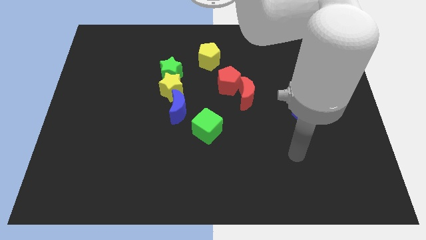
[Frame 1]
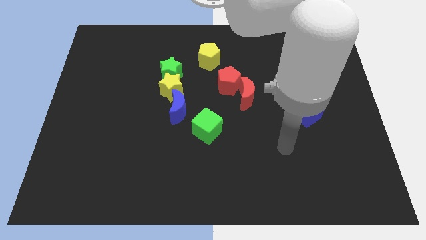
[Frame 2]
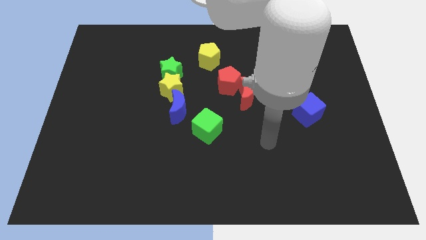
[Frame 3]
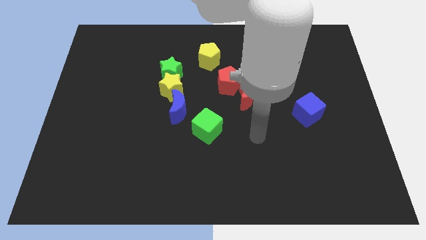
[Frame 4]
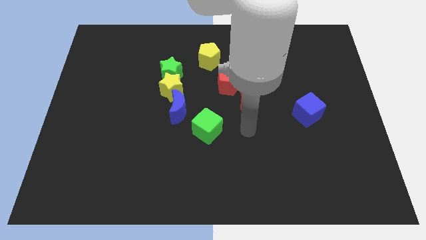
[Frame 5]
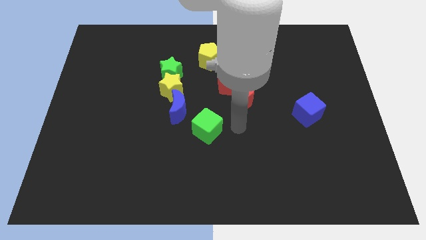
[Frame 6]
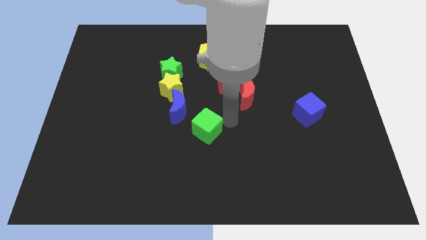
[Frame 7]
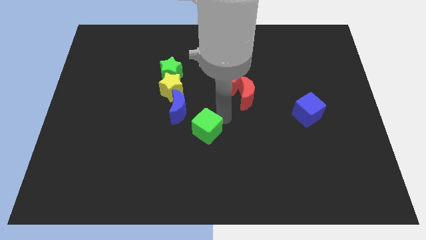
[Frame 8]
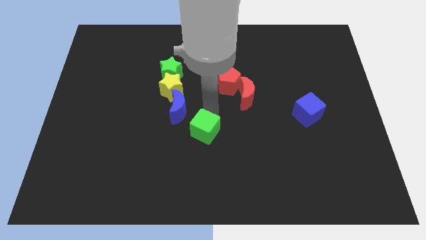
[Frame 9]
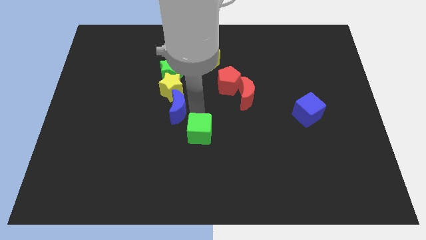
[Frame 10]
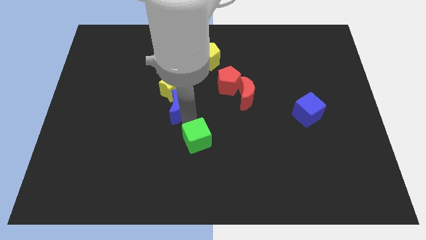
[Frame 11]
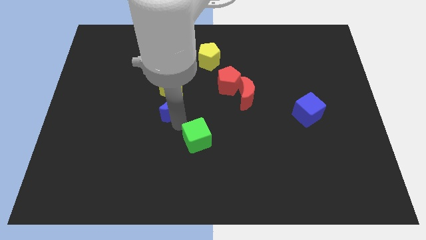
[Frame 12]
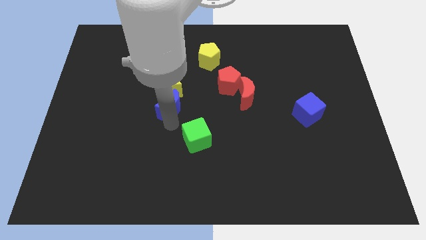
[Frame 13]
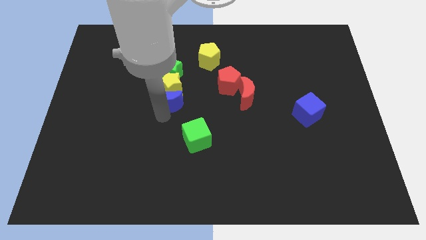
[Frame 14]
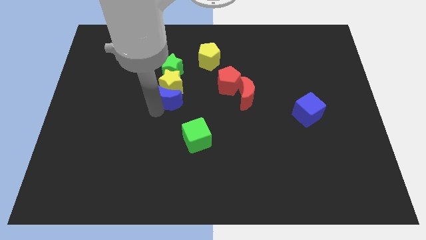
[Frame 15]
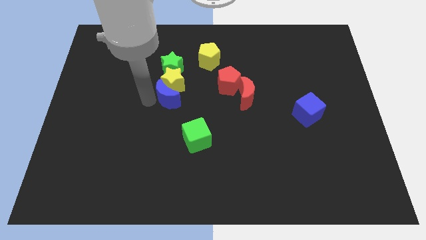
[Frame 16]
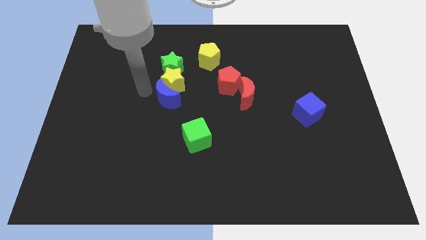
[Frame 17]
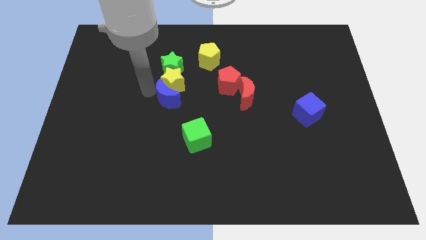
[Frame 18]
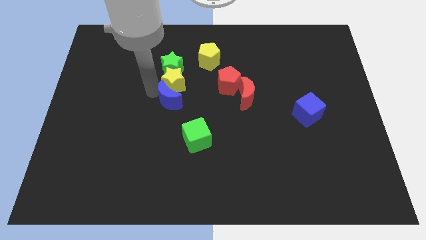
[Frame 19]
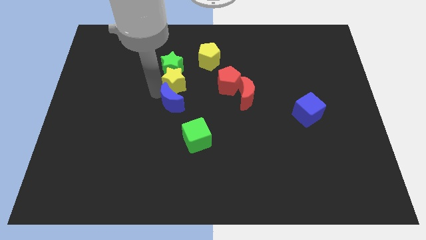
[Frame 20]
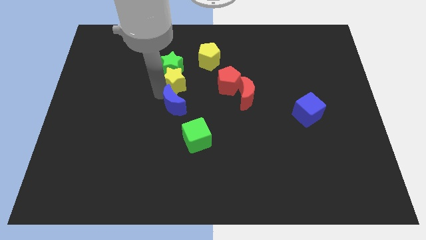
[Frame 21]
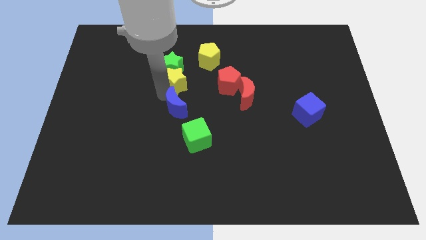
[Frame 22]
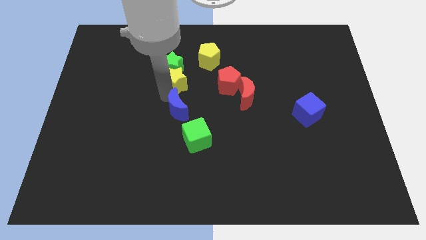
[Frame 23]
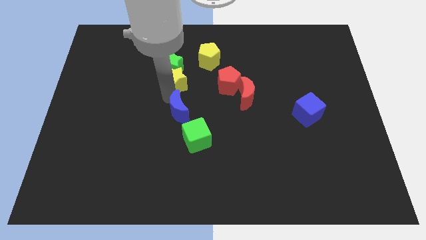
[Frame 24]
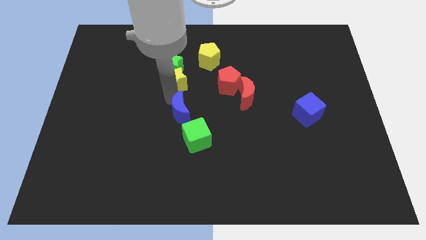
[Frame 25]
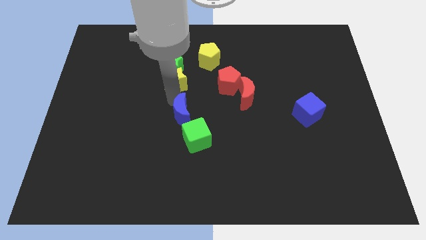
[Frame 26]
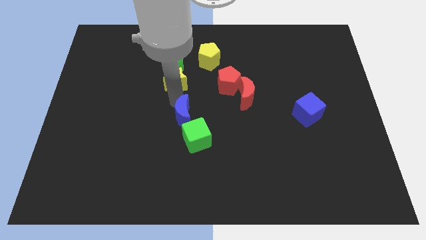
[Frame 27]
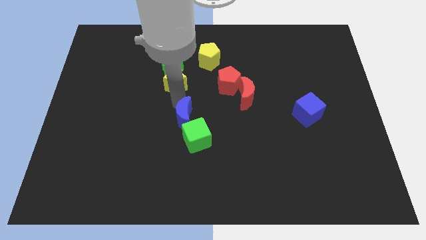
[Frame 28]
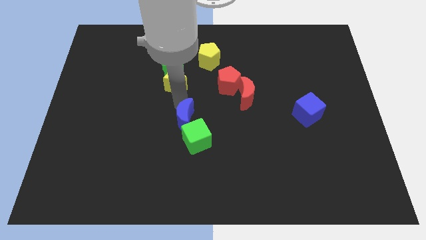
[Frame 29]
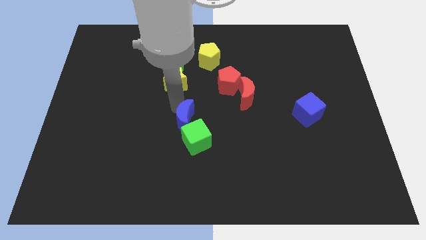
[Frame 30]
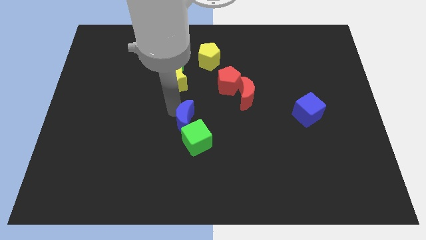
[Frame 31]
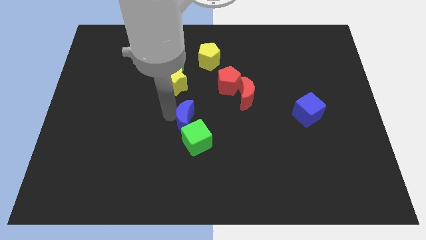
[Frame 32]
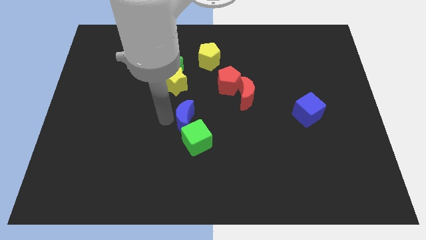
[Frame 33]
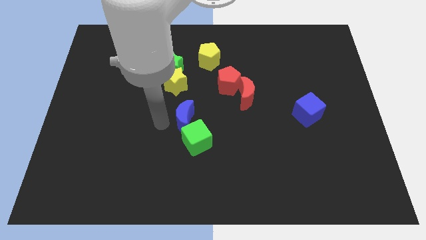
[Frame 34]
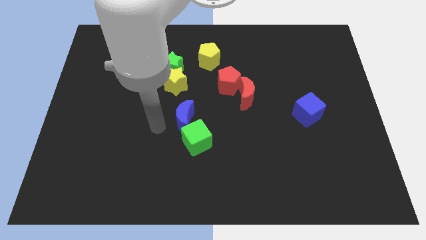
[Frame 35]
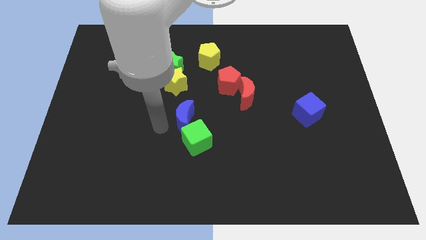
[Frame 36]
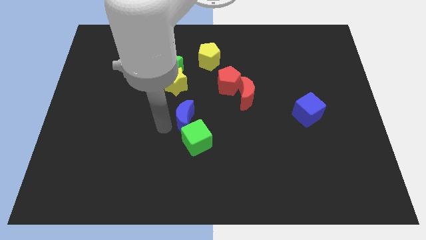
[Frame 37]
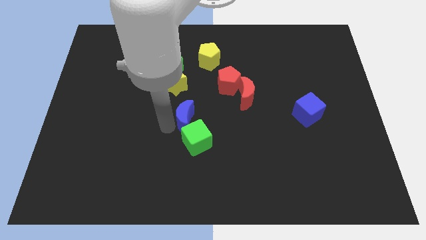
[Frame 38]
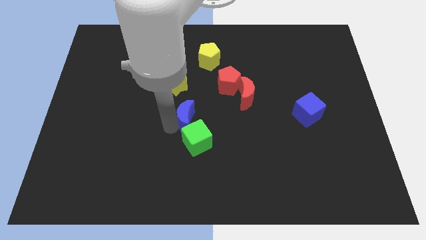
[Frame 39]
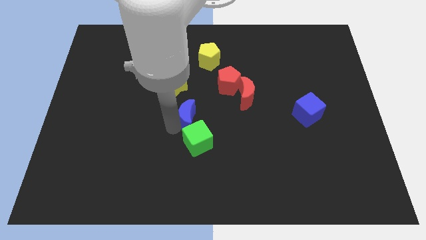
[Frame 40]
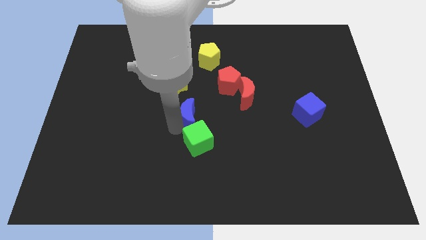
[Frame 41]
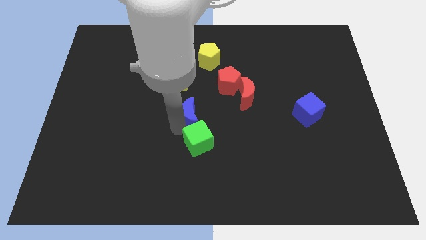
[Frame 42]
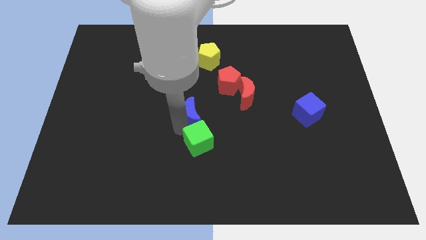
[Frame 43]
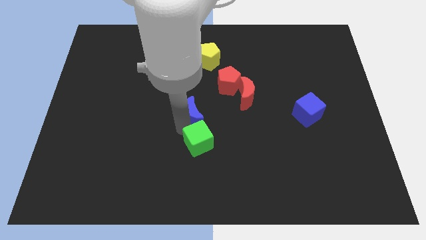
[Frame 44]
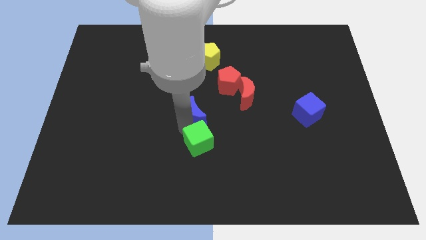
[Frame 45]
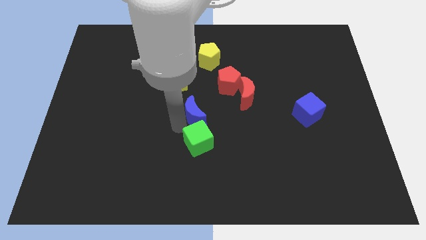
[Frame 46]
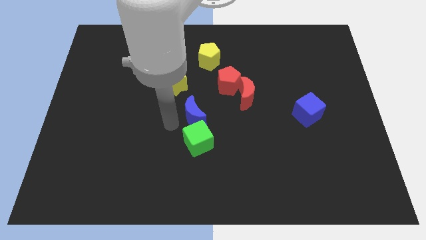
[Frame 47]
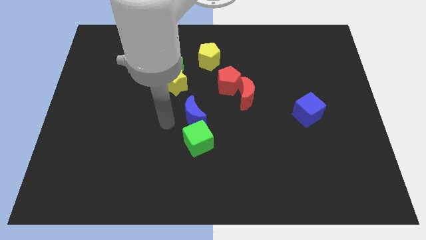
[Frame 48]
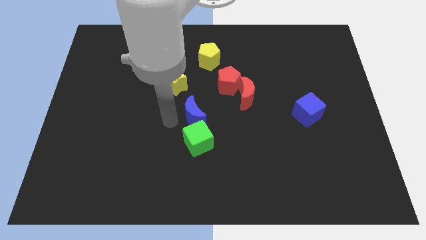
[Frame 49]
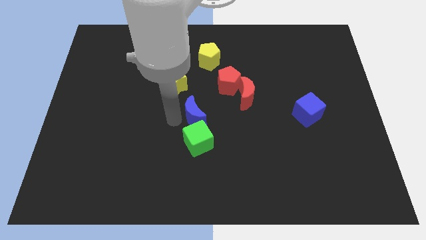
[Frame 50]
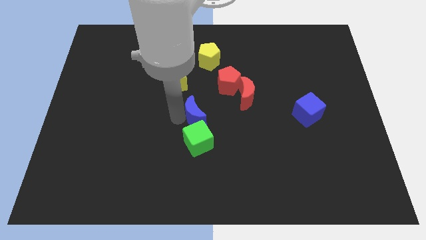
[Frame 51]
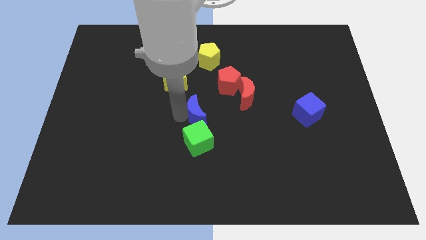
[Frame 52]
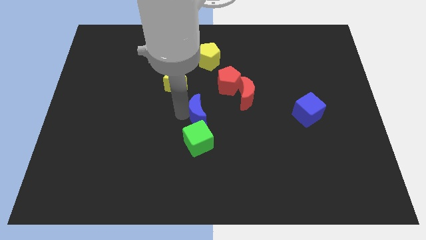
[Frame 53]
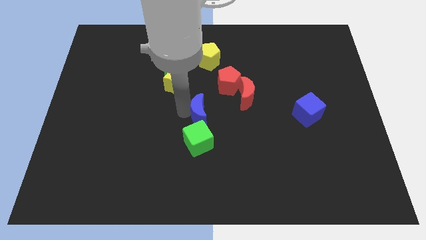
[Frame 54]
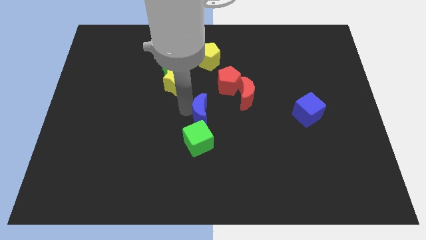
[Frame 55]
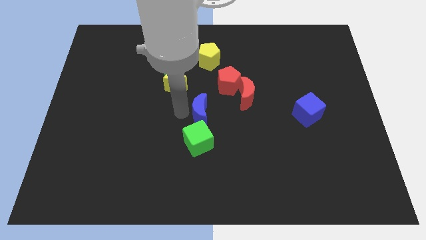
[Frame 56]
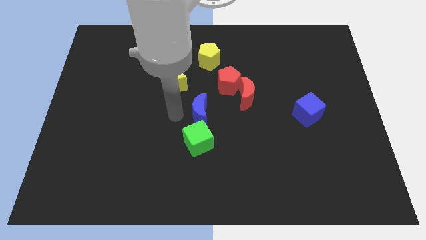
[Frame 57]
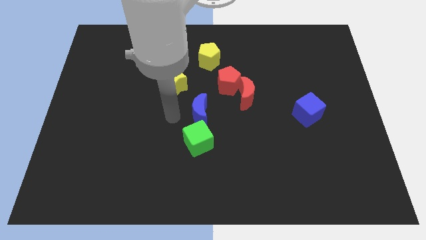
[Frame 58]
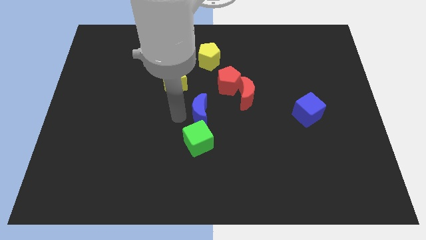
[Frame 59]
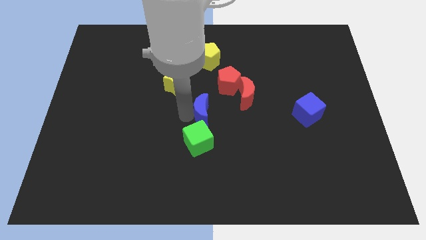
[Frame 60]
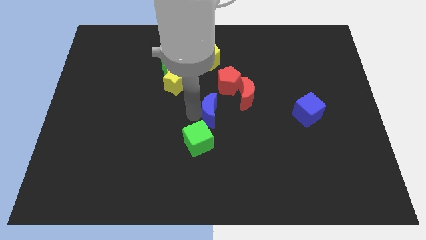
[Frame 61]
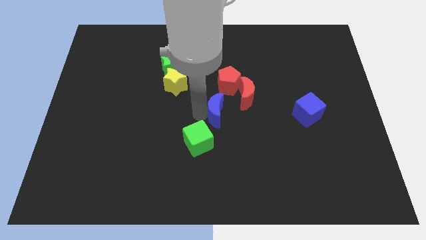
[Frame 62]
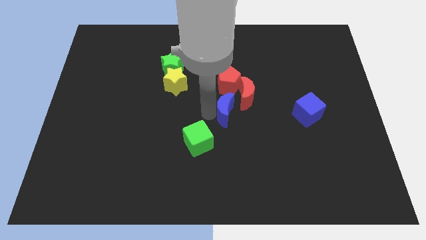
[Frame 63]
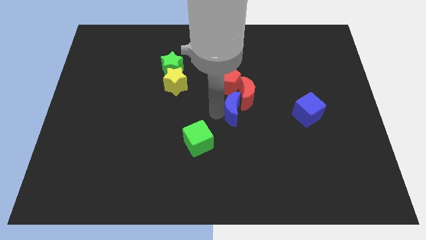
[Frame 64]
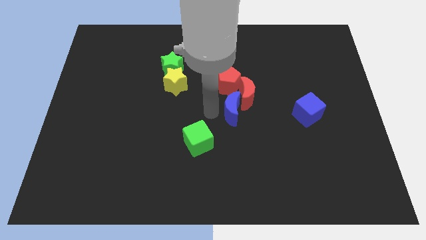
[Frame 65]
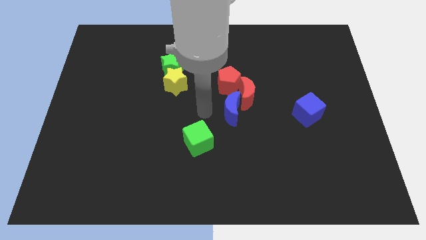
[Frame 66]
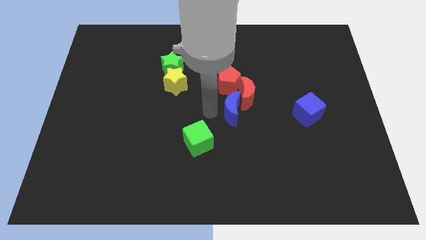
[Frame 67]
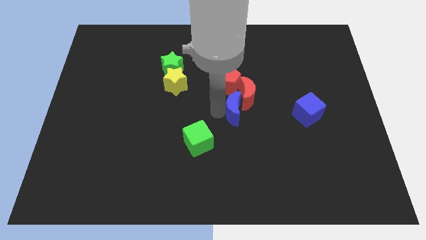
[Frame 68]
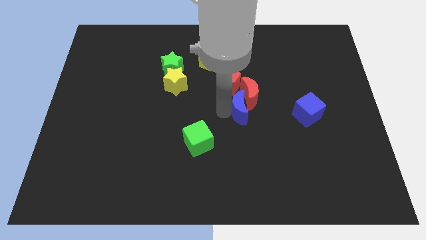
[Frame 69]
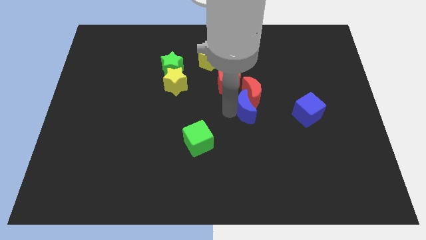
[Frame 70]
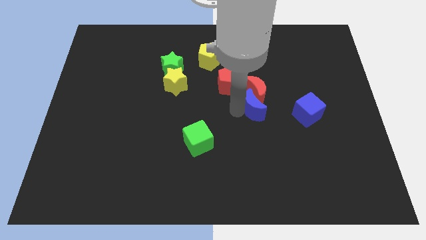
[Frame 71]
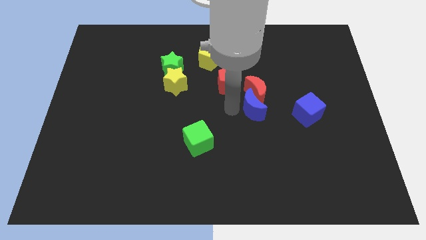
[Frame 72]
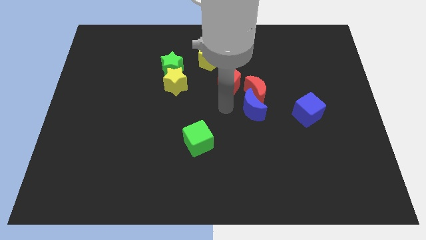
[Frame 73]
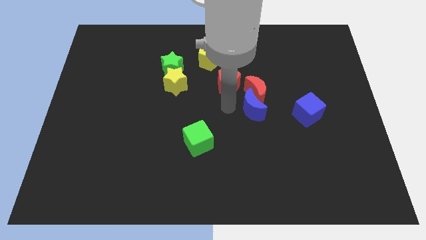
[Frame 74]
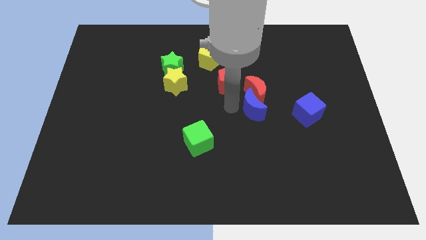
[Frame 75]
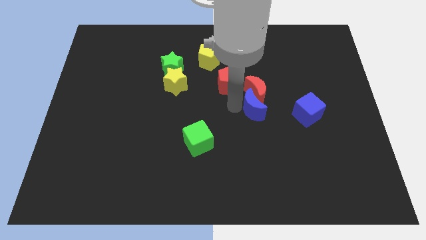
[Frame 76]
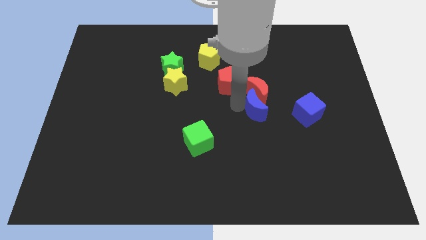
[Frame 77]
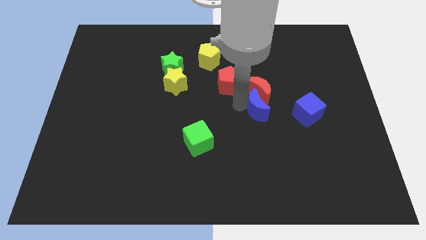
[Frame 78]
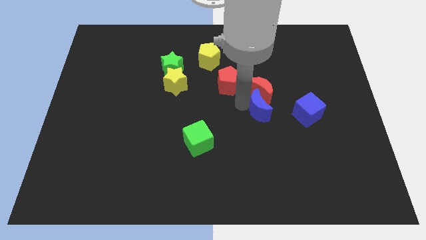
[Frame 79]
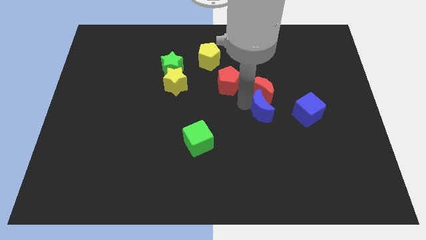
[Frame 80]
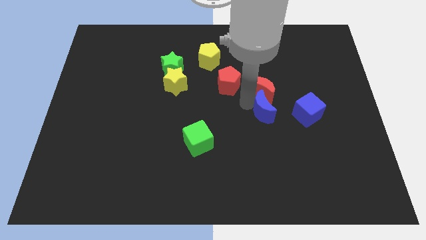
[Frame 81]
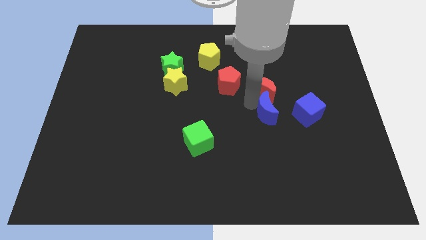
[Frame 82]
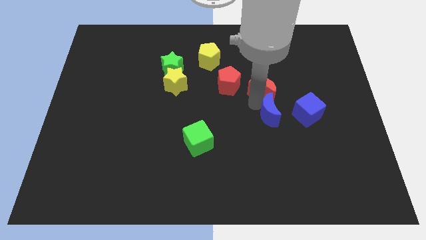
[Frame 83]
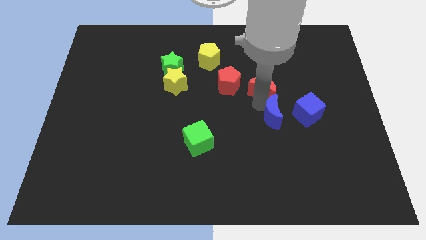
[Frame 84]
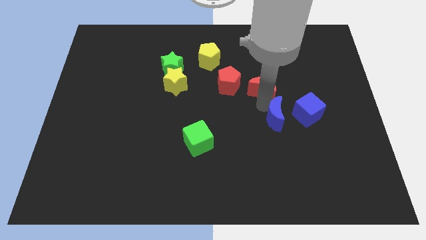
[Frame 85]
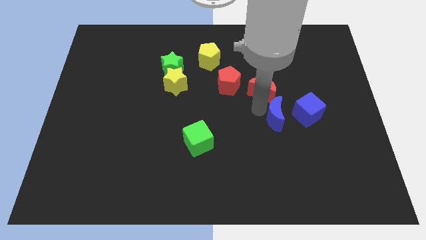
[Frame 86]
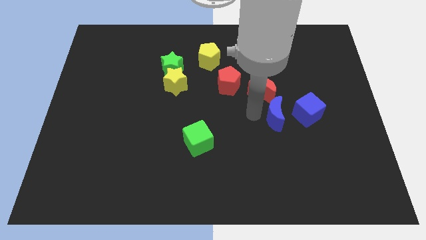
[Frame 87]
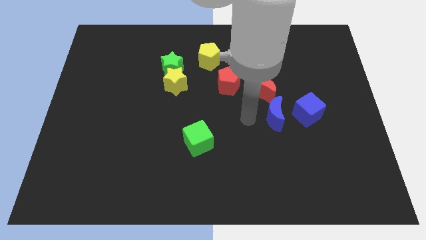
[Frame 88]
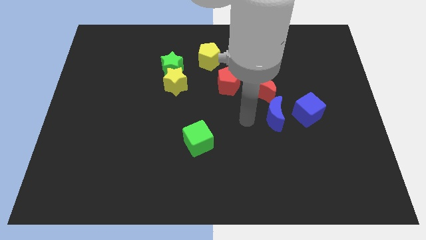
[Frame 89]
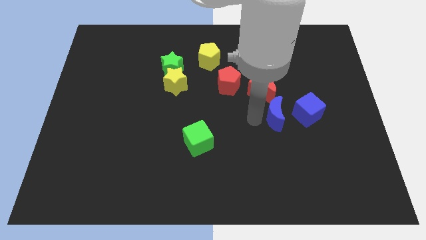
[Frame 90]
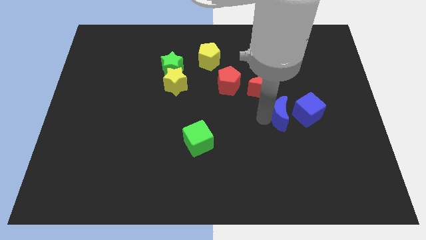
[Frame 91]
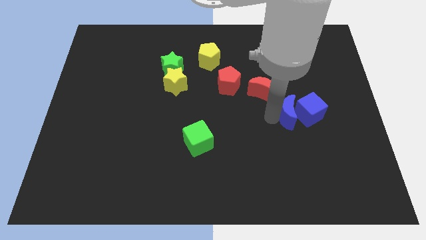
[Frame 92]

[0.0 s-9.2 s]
put the blue moon to the blue cube
